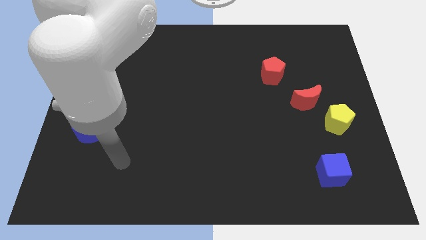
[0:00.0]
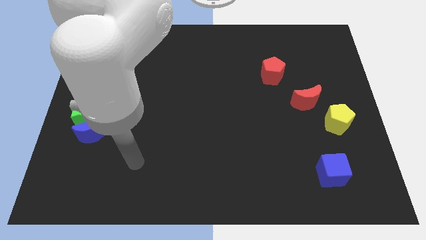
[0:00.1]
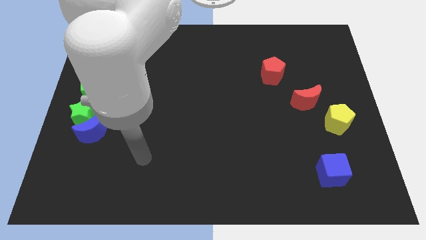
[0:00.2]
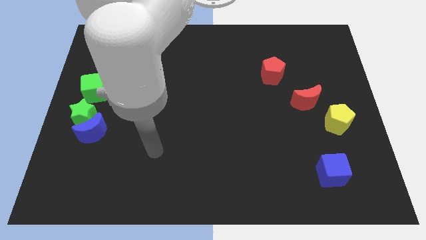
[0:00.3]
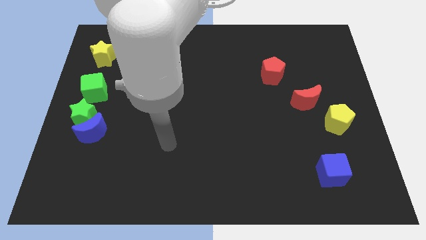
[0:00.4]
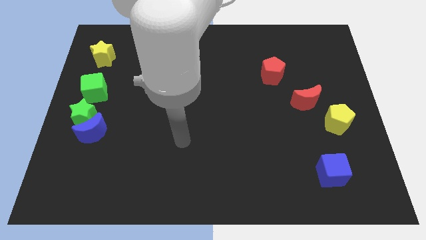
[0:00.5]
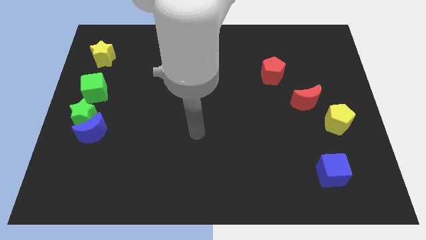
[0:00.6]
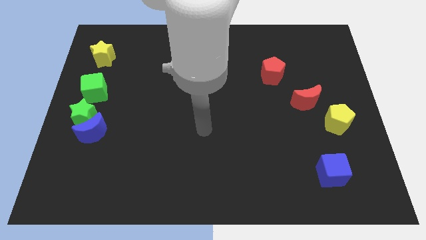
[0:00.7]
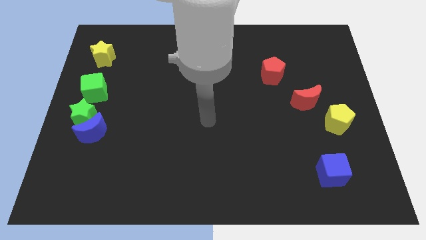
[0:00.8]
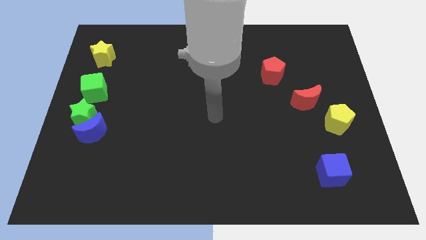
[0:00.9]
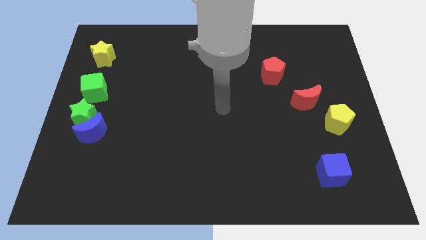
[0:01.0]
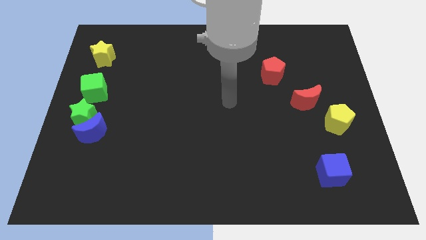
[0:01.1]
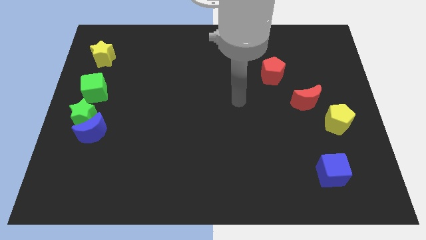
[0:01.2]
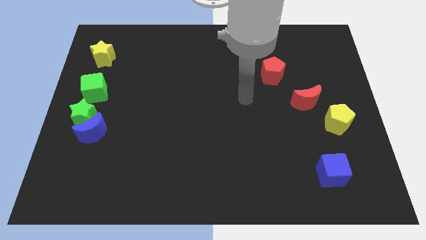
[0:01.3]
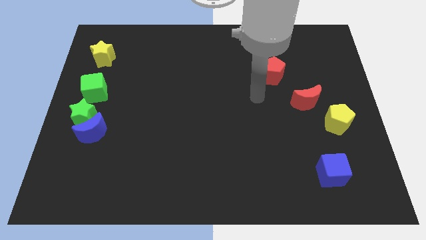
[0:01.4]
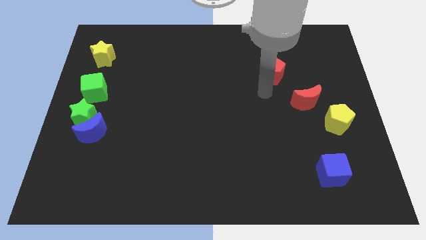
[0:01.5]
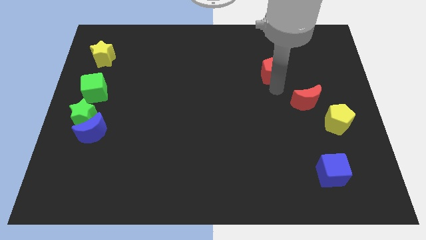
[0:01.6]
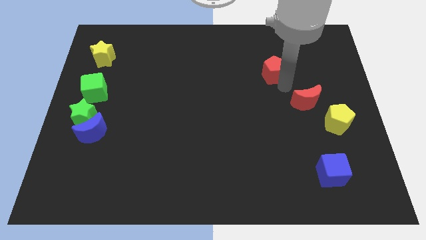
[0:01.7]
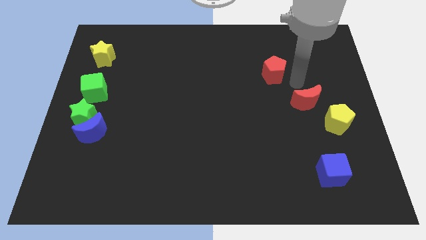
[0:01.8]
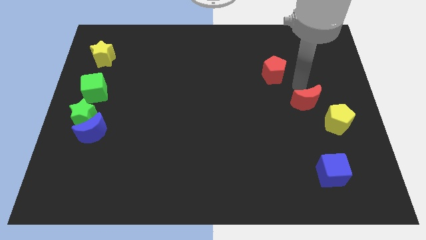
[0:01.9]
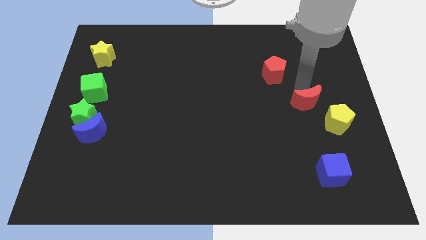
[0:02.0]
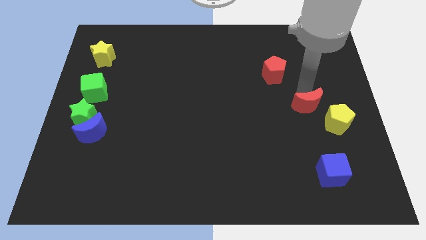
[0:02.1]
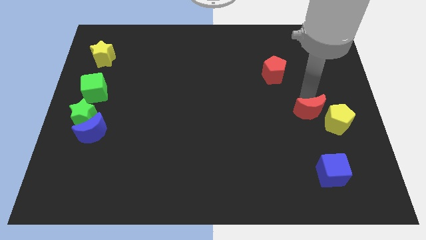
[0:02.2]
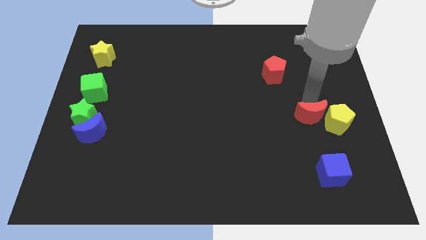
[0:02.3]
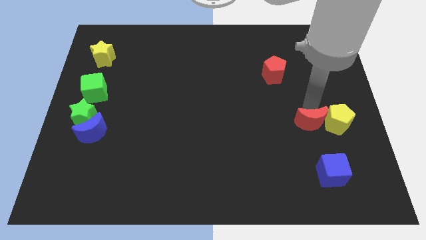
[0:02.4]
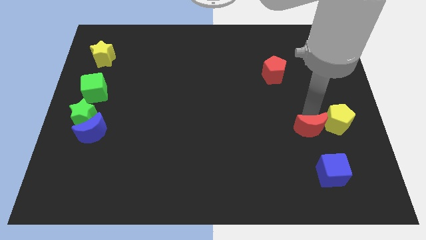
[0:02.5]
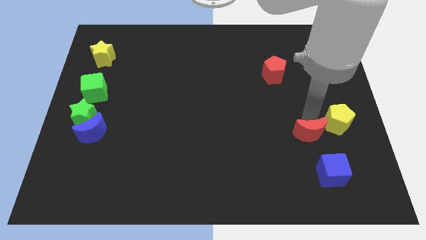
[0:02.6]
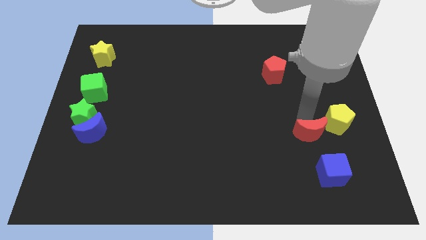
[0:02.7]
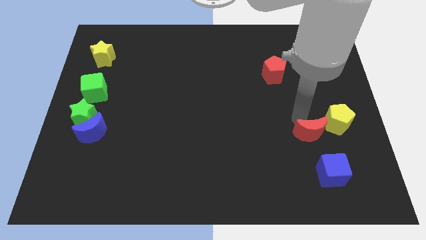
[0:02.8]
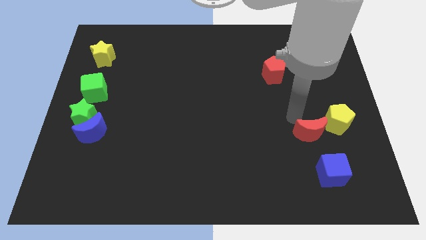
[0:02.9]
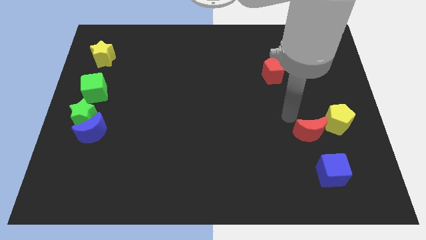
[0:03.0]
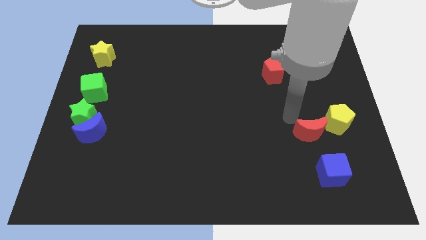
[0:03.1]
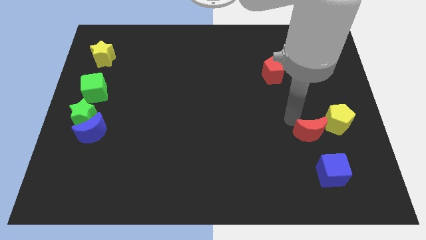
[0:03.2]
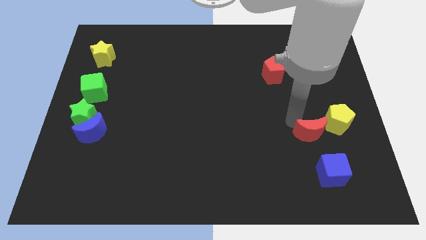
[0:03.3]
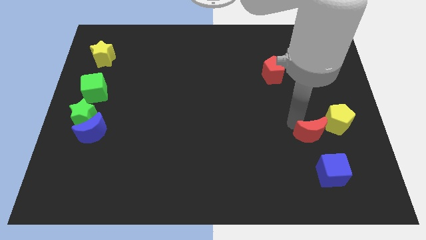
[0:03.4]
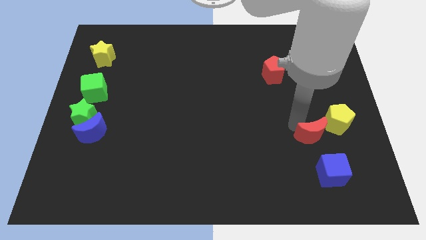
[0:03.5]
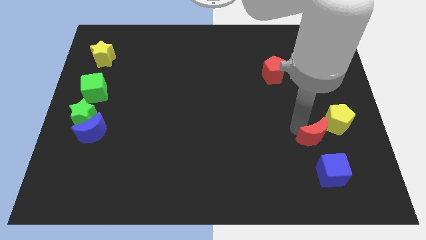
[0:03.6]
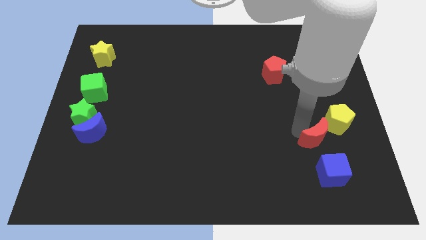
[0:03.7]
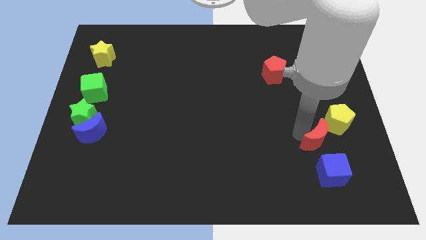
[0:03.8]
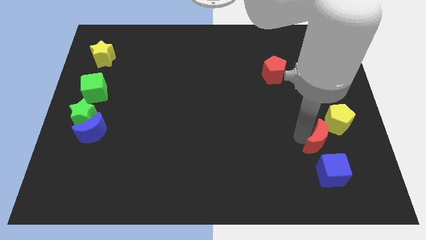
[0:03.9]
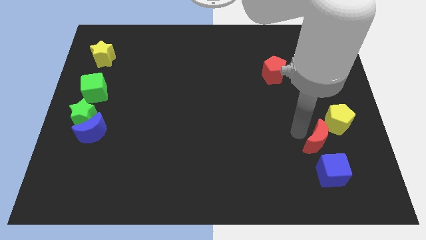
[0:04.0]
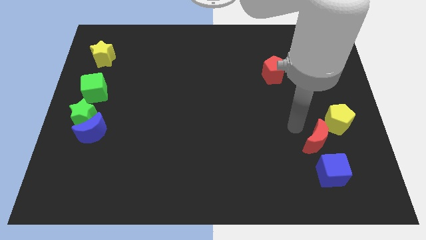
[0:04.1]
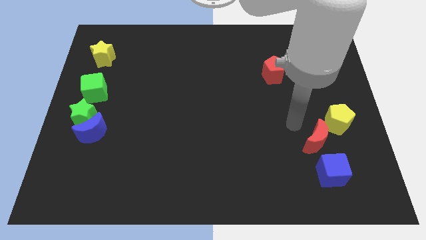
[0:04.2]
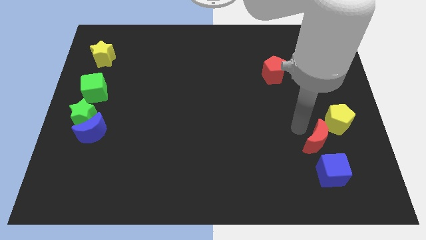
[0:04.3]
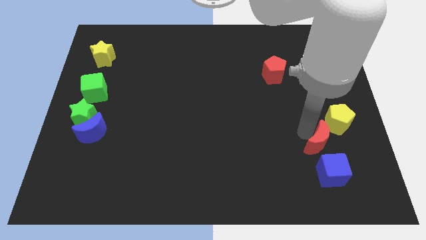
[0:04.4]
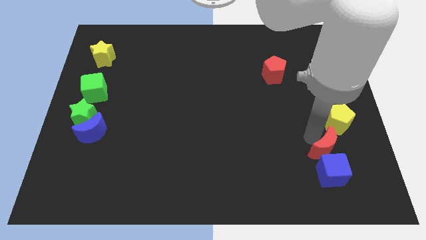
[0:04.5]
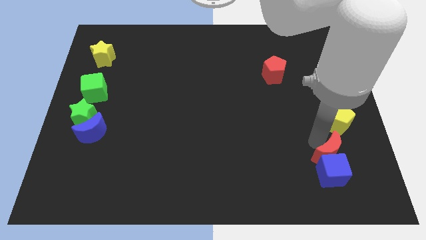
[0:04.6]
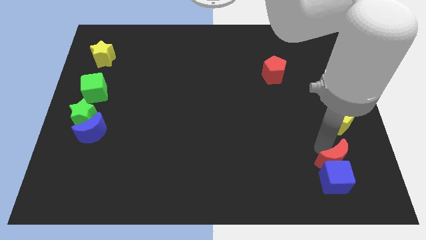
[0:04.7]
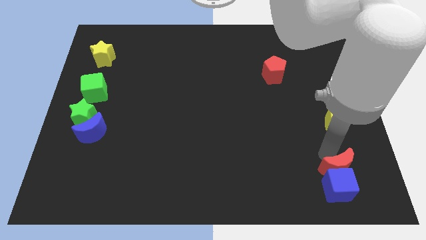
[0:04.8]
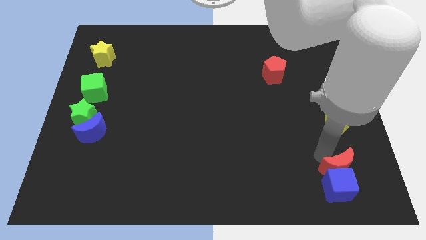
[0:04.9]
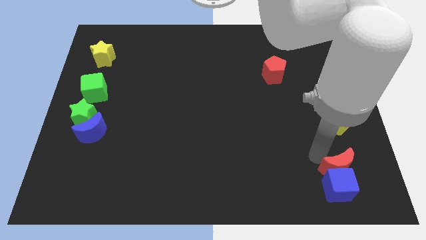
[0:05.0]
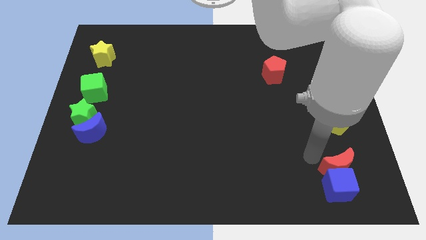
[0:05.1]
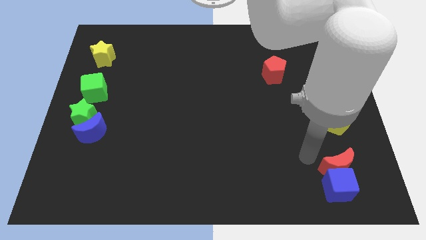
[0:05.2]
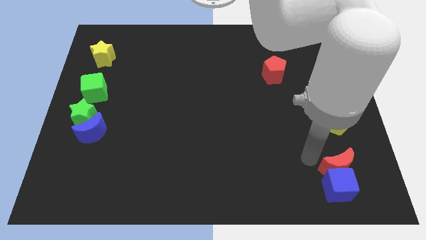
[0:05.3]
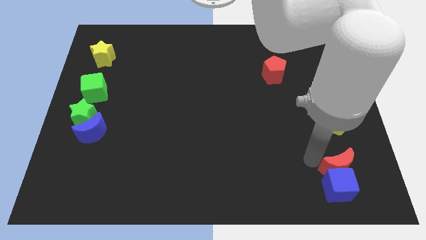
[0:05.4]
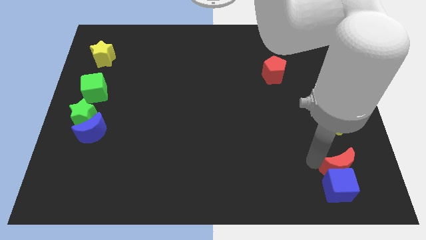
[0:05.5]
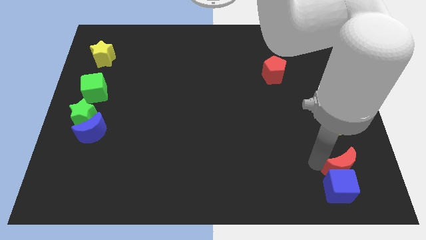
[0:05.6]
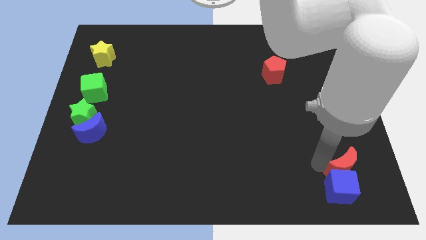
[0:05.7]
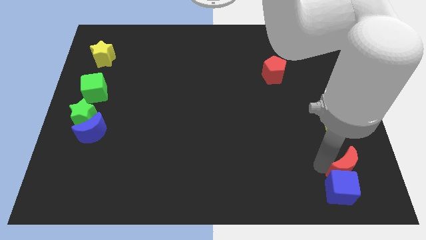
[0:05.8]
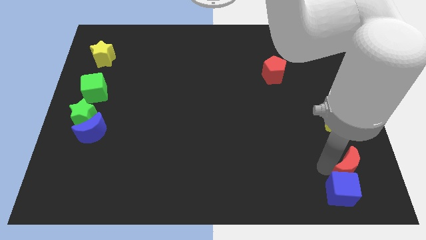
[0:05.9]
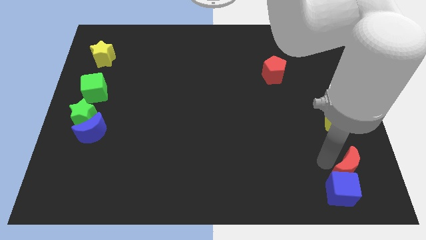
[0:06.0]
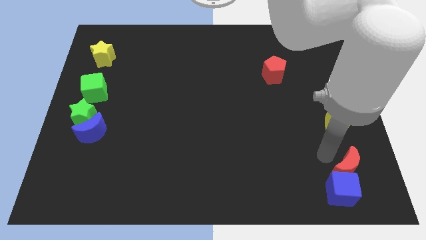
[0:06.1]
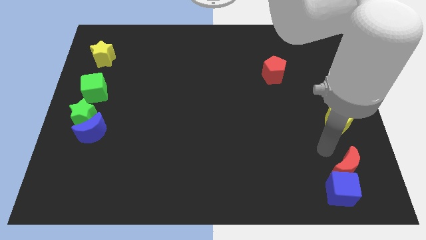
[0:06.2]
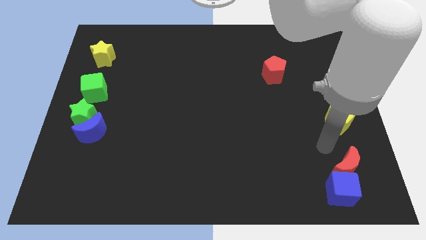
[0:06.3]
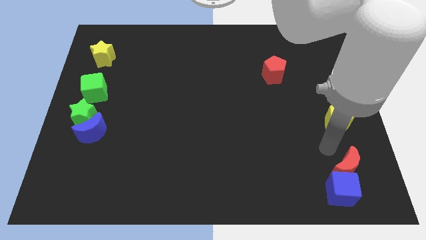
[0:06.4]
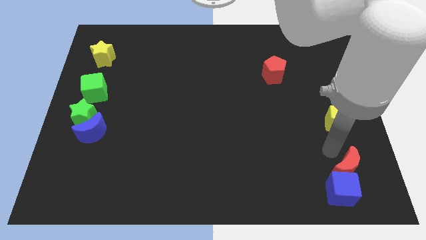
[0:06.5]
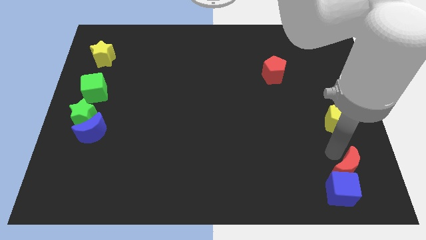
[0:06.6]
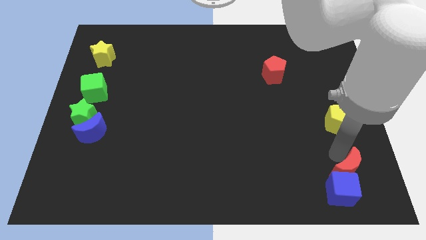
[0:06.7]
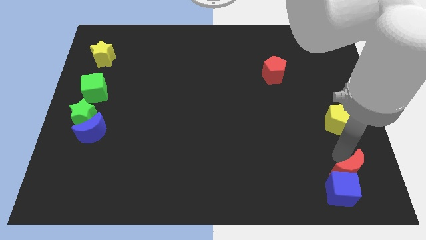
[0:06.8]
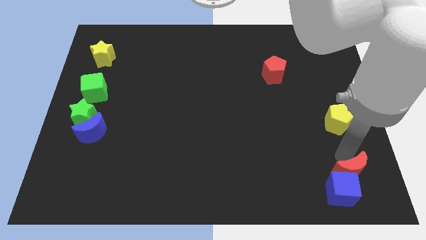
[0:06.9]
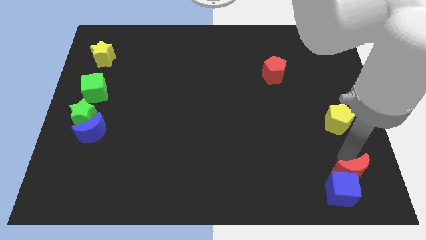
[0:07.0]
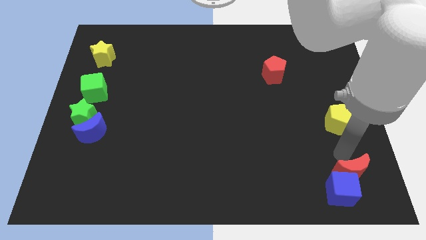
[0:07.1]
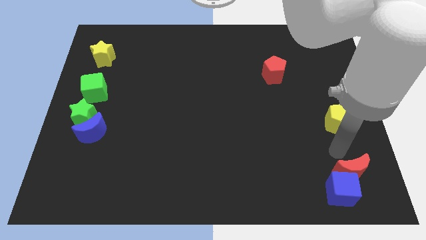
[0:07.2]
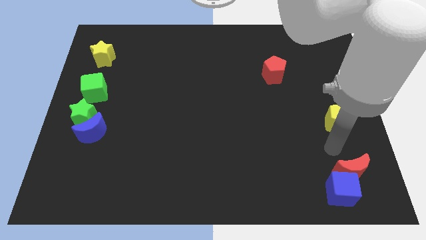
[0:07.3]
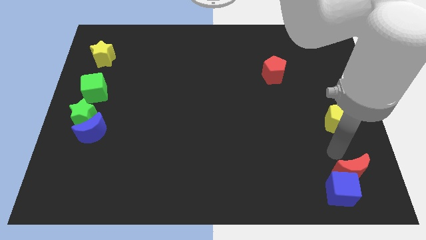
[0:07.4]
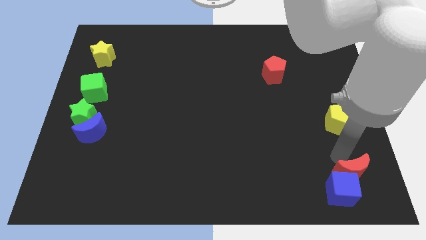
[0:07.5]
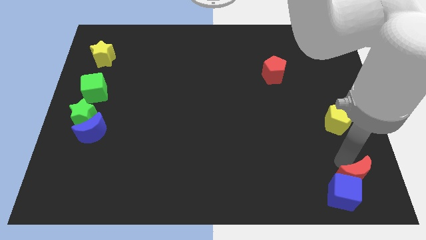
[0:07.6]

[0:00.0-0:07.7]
push the red moon to the bottom right corner
